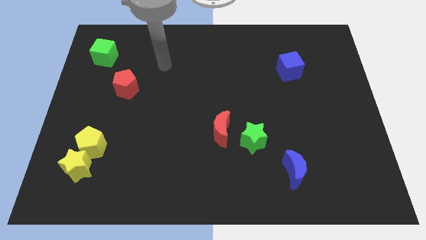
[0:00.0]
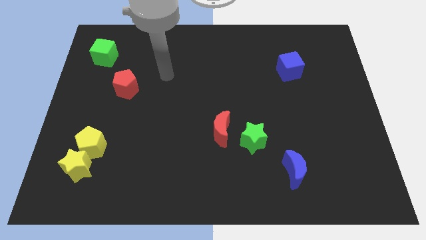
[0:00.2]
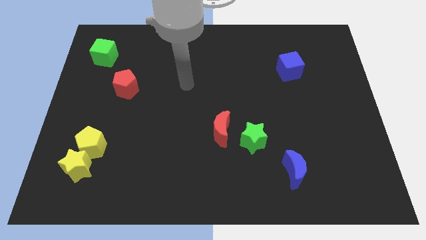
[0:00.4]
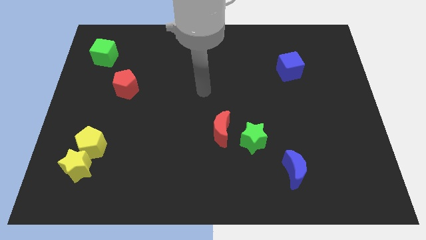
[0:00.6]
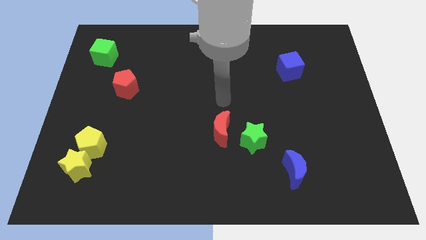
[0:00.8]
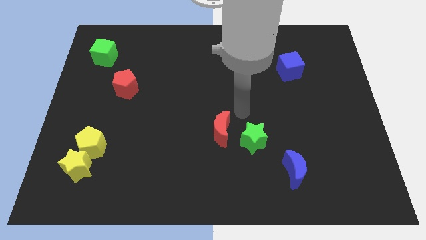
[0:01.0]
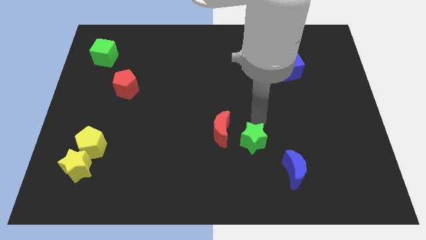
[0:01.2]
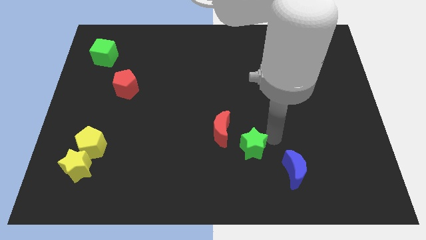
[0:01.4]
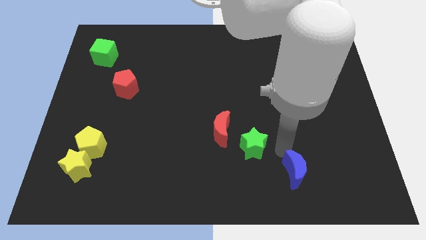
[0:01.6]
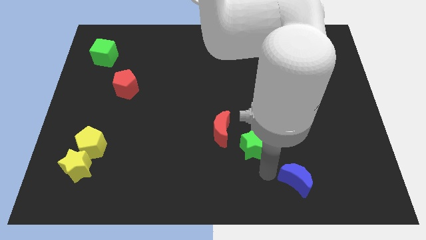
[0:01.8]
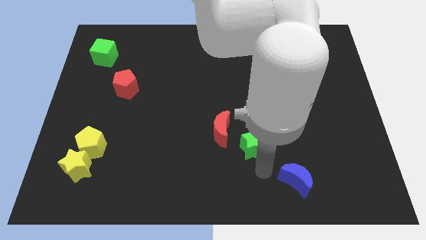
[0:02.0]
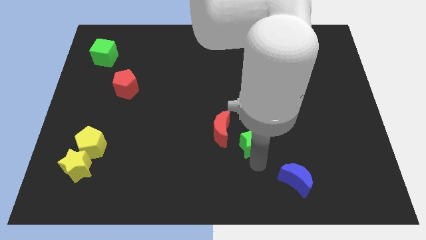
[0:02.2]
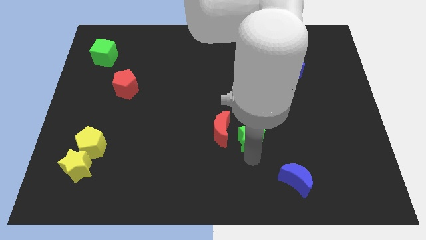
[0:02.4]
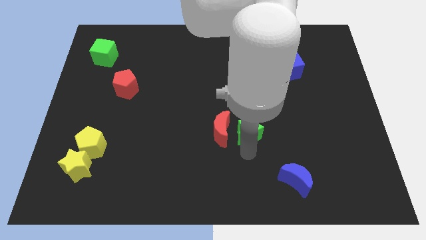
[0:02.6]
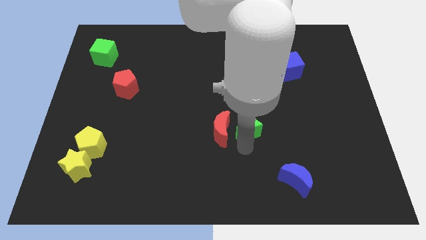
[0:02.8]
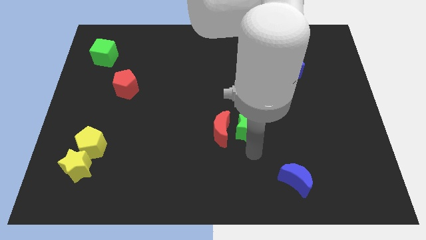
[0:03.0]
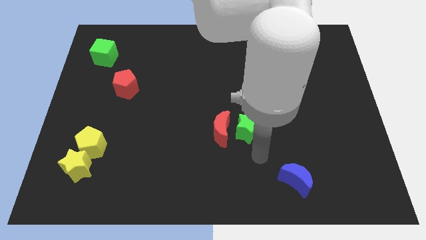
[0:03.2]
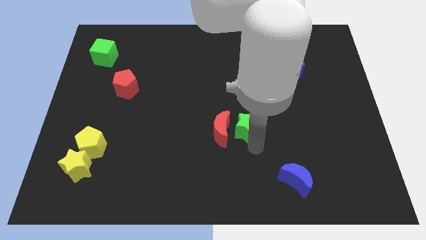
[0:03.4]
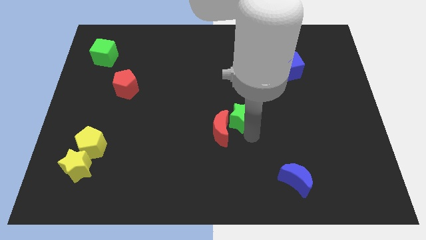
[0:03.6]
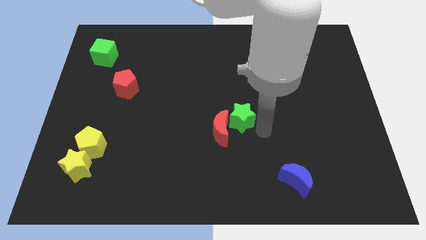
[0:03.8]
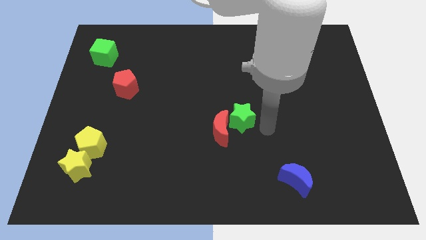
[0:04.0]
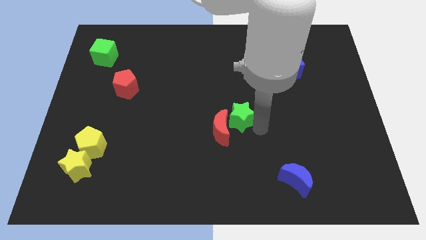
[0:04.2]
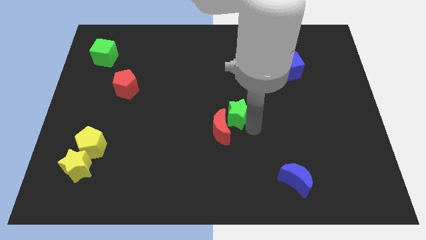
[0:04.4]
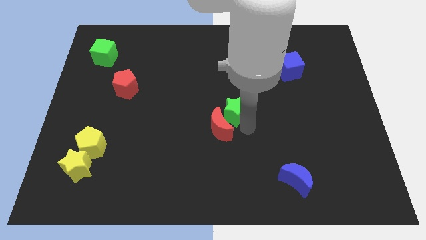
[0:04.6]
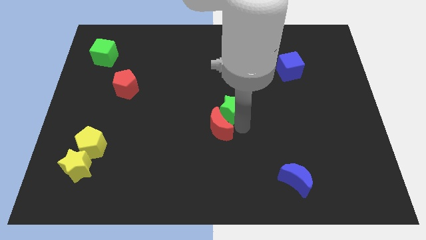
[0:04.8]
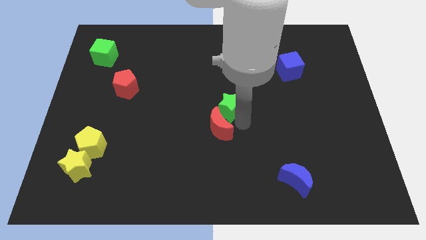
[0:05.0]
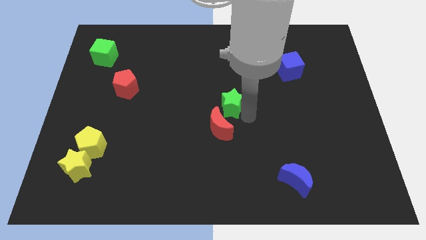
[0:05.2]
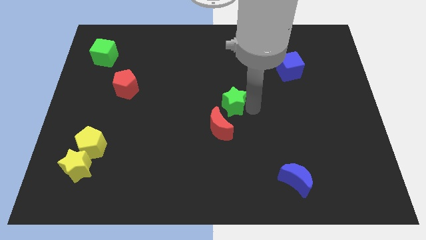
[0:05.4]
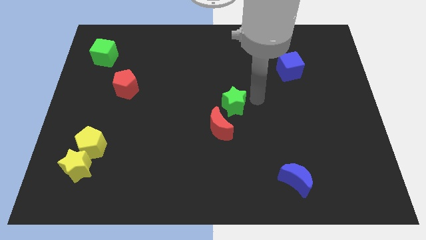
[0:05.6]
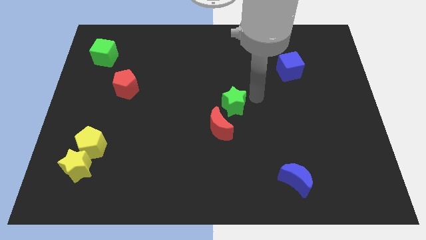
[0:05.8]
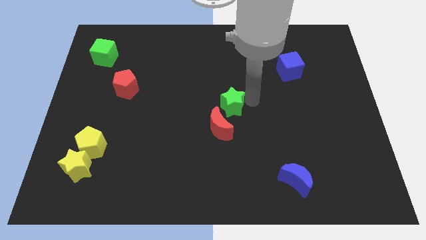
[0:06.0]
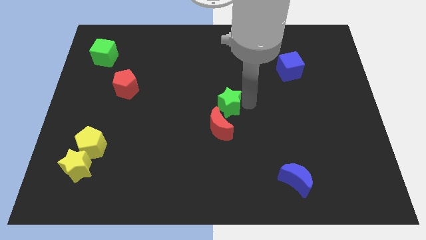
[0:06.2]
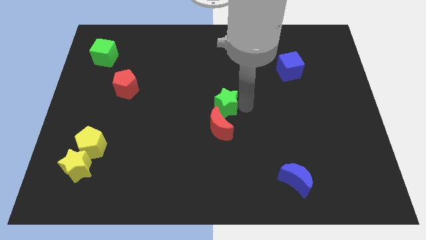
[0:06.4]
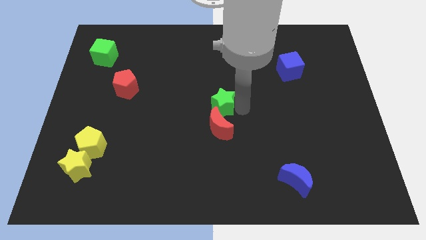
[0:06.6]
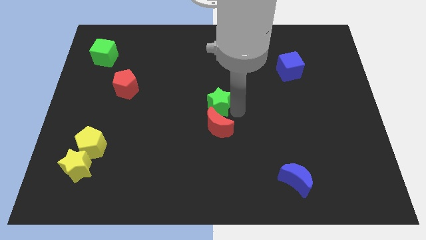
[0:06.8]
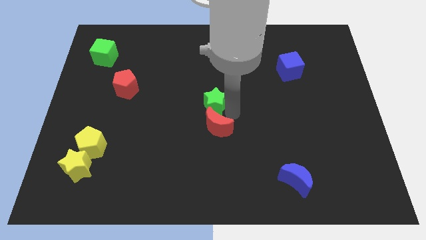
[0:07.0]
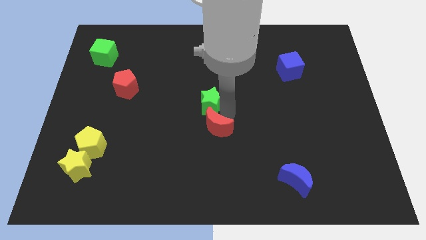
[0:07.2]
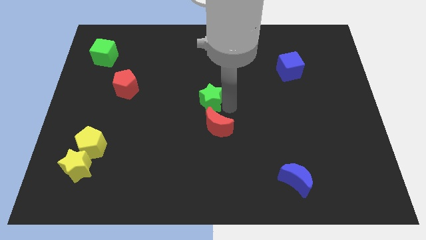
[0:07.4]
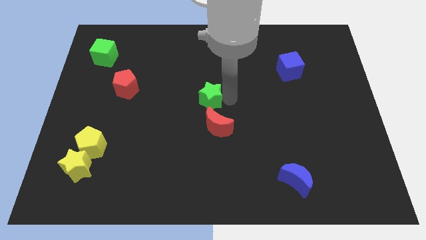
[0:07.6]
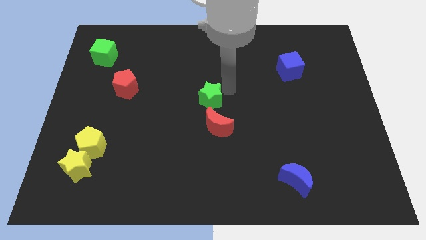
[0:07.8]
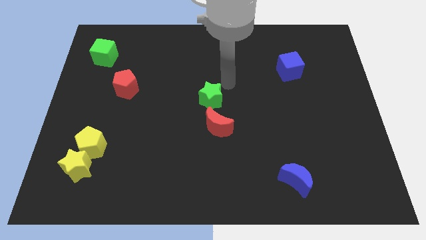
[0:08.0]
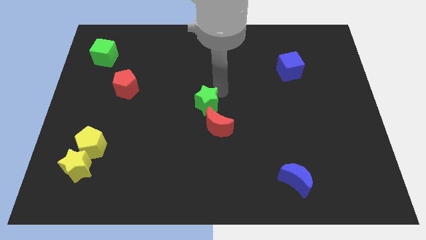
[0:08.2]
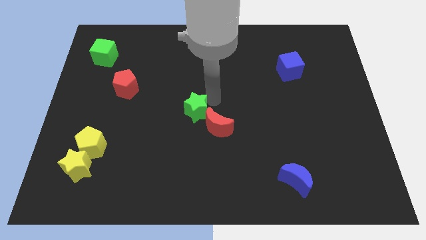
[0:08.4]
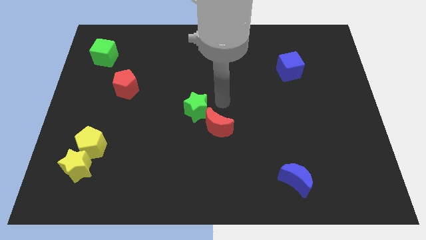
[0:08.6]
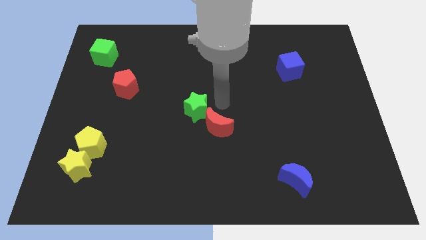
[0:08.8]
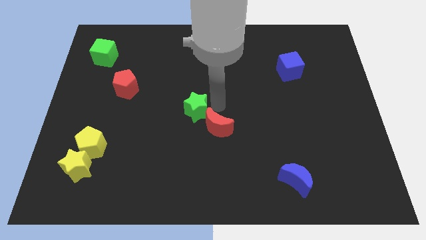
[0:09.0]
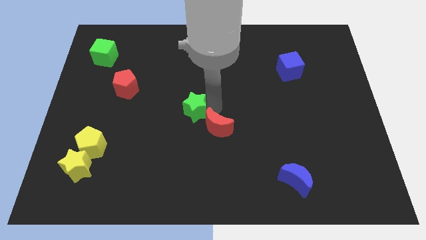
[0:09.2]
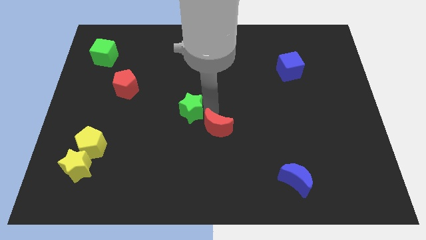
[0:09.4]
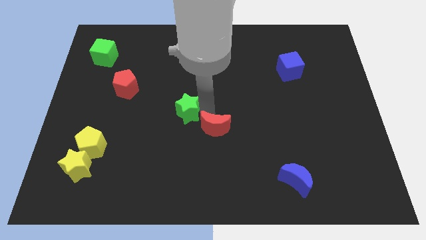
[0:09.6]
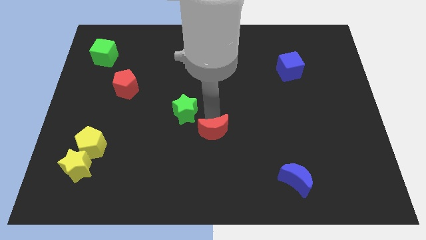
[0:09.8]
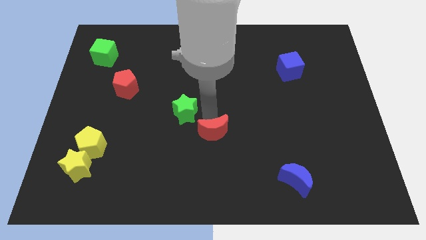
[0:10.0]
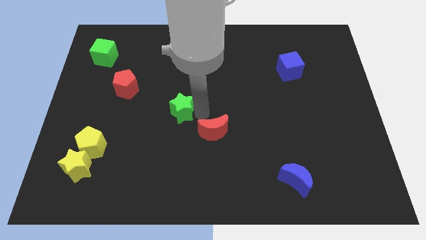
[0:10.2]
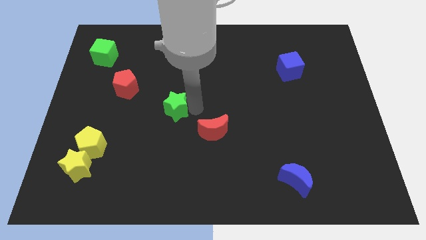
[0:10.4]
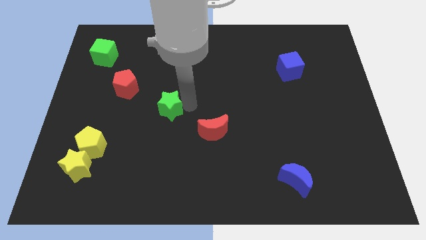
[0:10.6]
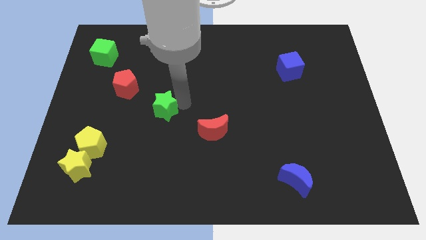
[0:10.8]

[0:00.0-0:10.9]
push the green star diagonally down and to the right of the red pentagon
